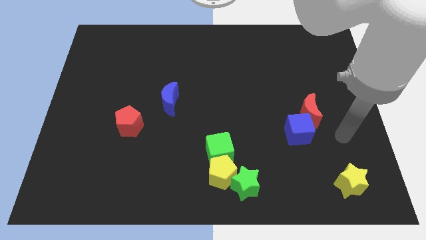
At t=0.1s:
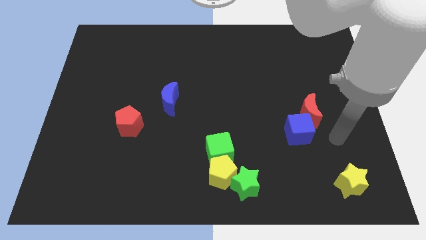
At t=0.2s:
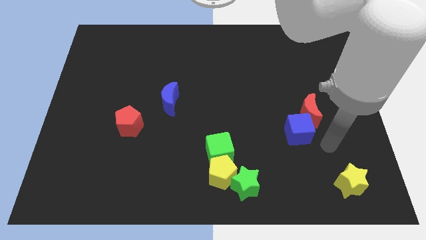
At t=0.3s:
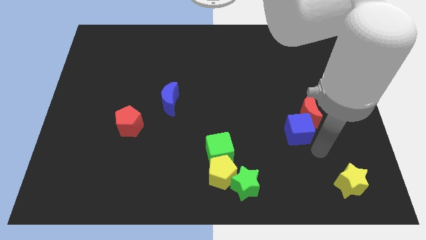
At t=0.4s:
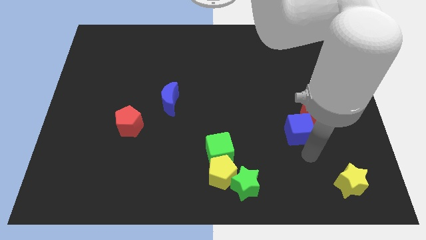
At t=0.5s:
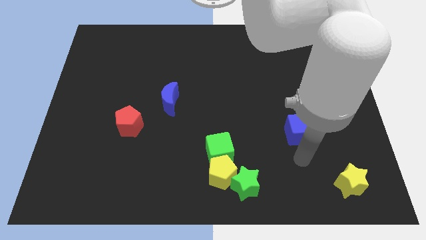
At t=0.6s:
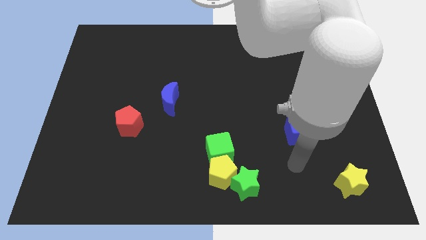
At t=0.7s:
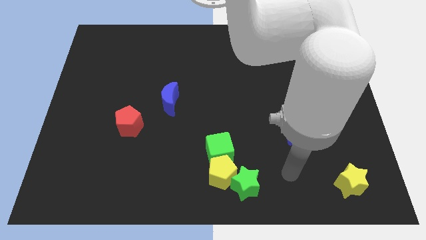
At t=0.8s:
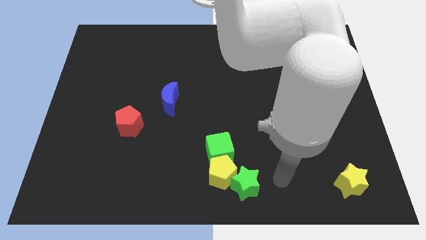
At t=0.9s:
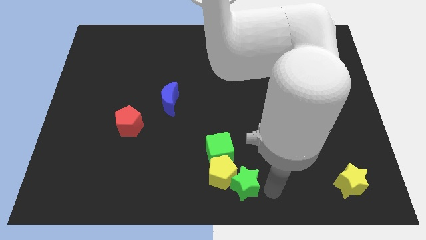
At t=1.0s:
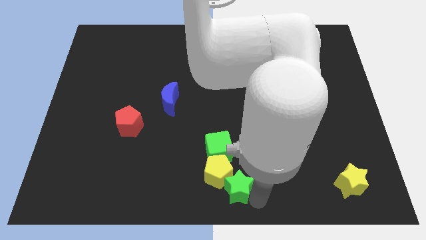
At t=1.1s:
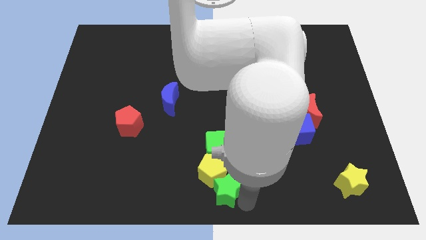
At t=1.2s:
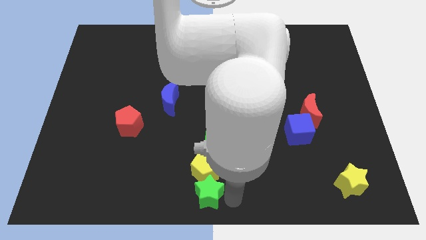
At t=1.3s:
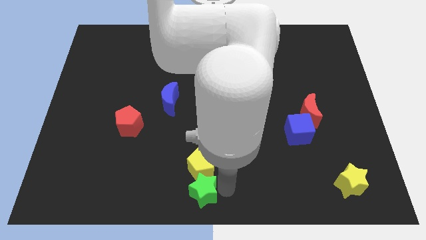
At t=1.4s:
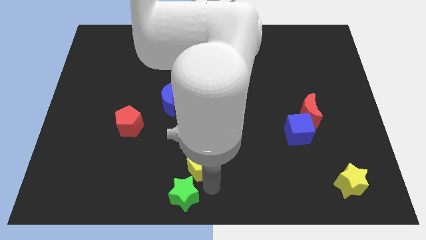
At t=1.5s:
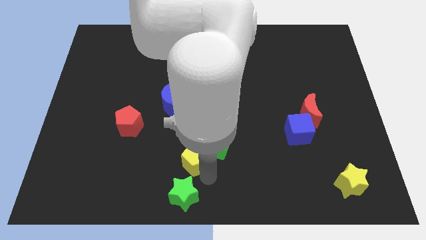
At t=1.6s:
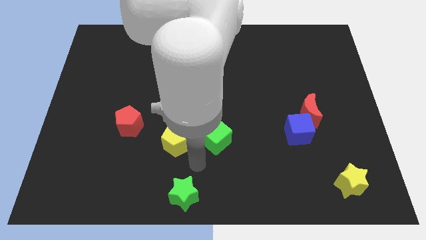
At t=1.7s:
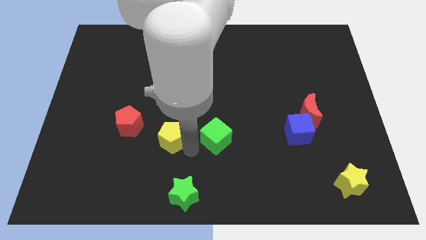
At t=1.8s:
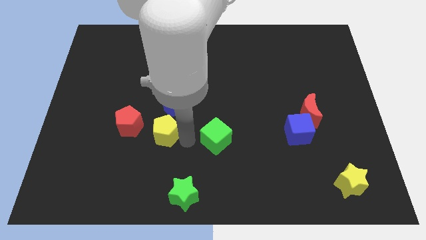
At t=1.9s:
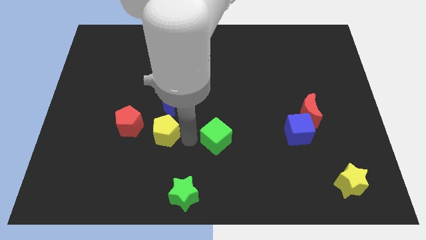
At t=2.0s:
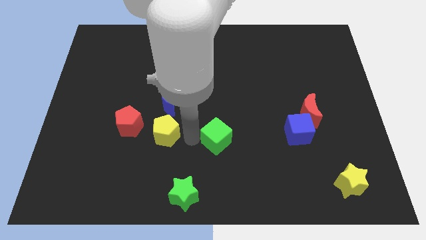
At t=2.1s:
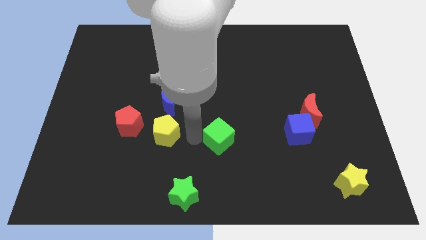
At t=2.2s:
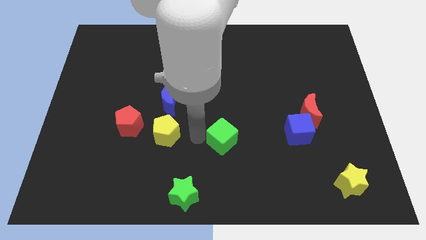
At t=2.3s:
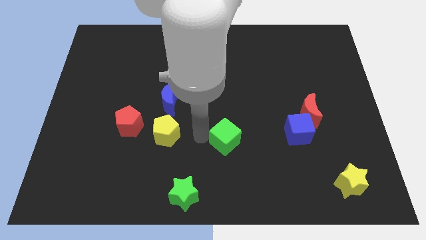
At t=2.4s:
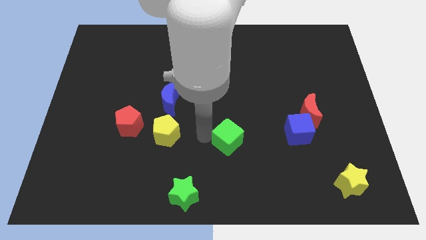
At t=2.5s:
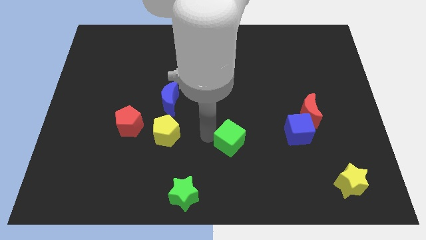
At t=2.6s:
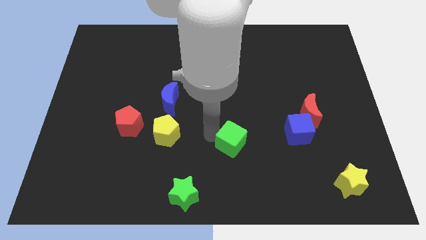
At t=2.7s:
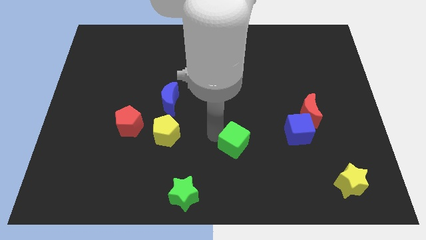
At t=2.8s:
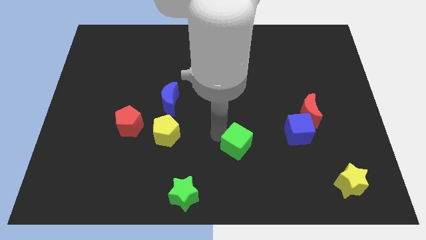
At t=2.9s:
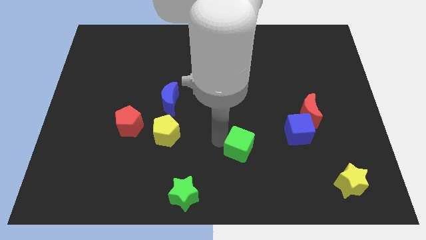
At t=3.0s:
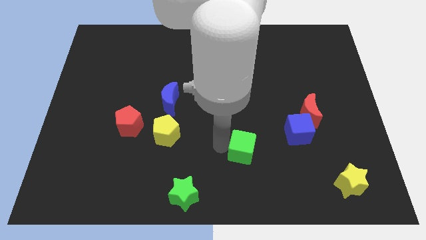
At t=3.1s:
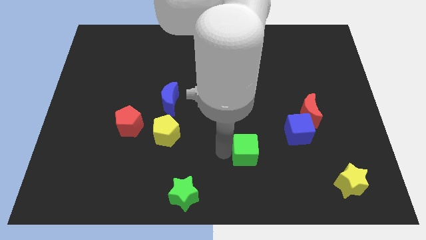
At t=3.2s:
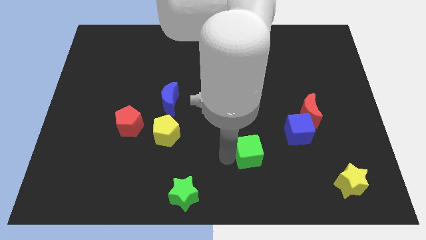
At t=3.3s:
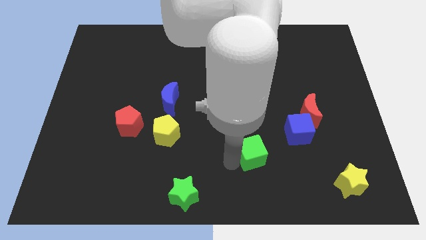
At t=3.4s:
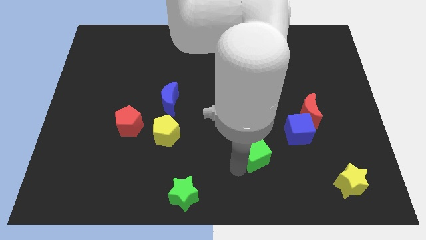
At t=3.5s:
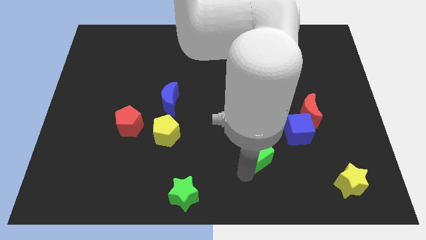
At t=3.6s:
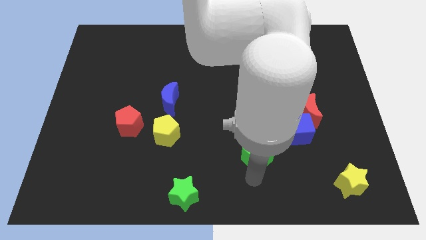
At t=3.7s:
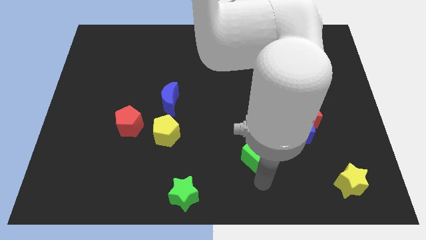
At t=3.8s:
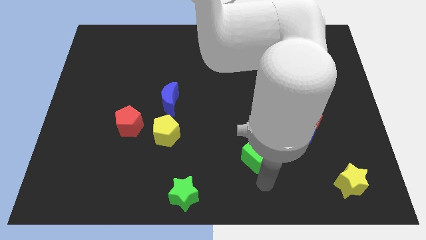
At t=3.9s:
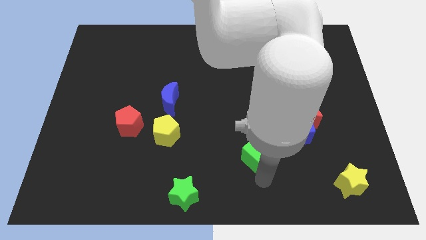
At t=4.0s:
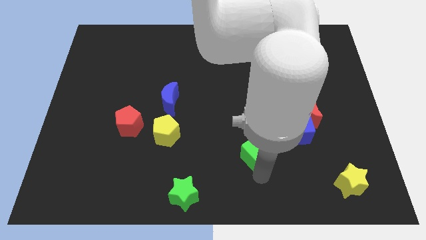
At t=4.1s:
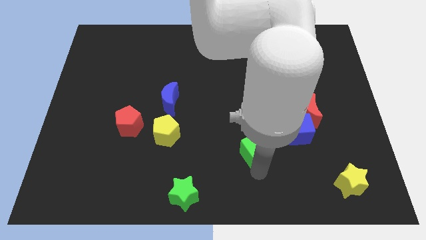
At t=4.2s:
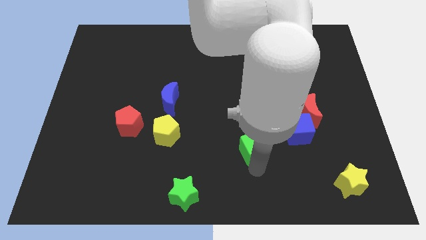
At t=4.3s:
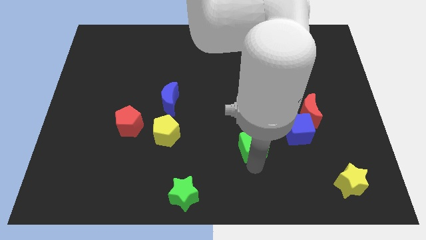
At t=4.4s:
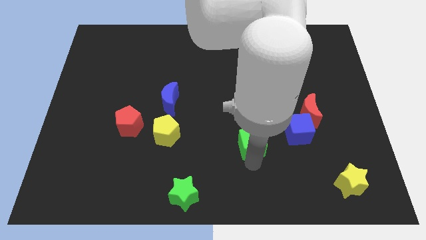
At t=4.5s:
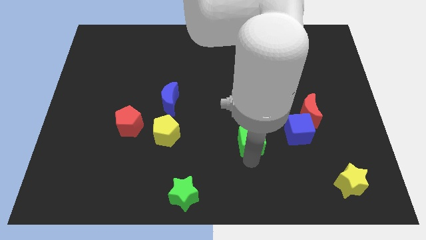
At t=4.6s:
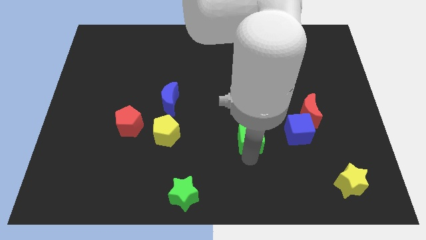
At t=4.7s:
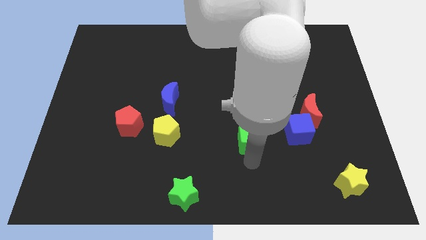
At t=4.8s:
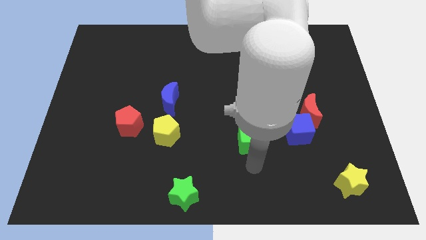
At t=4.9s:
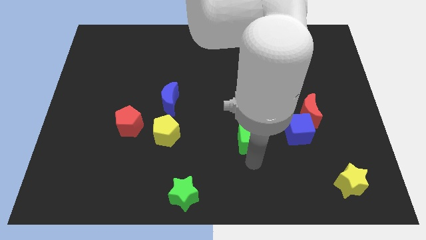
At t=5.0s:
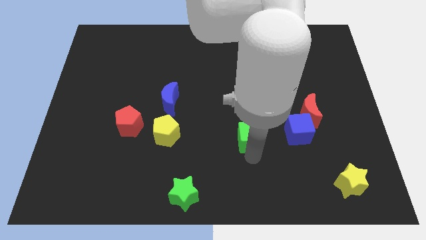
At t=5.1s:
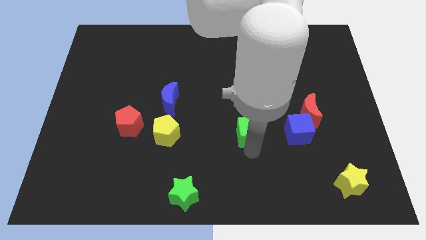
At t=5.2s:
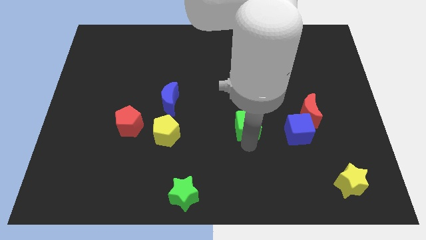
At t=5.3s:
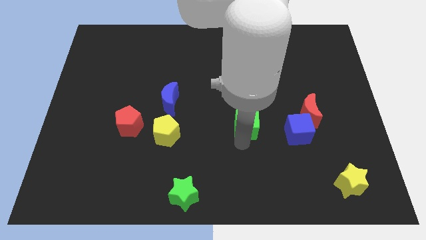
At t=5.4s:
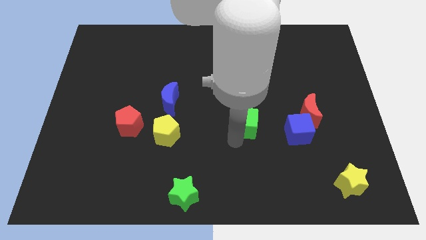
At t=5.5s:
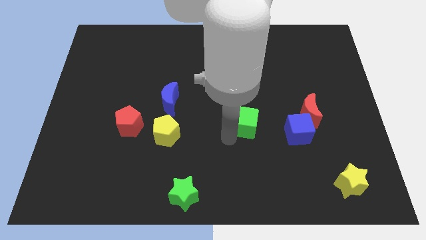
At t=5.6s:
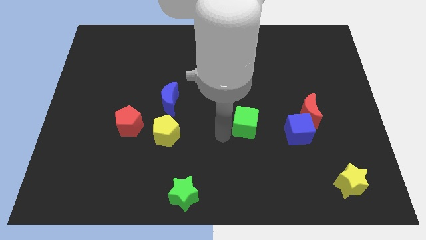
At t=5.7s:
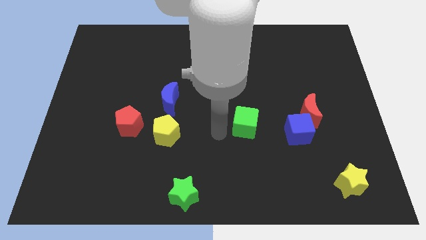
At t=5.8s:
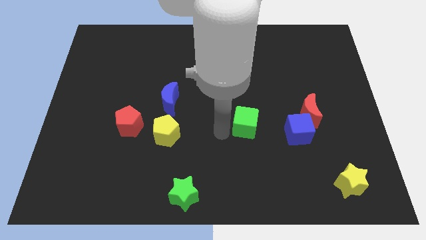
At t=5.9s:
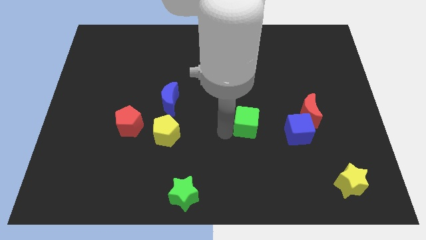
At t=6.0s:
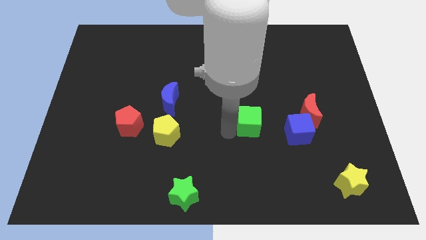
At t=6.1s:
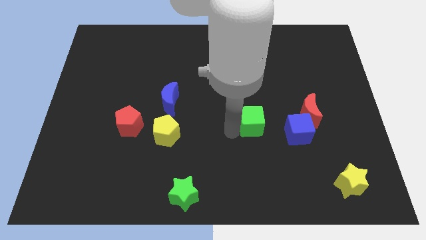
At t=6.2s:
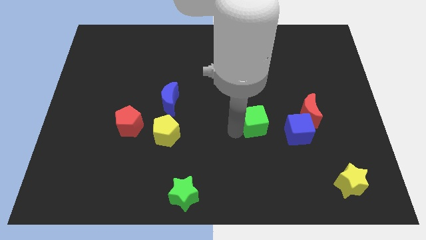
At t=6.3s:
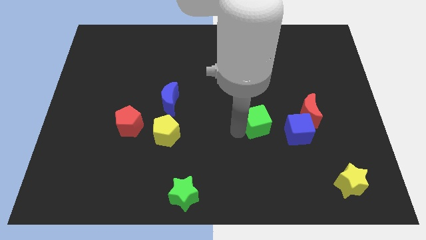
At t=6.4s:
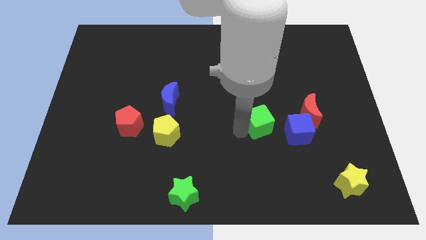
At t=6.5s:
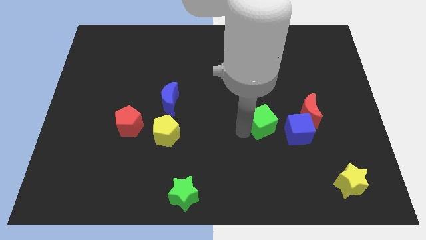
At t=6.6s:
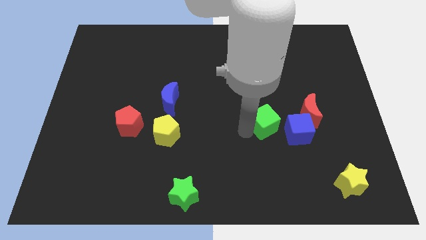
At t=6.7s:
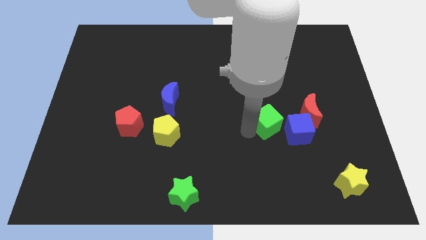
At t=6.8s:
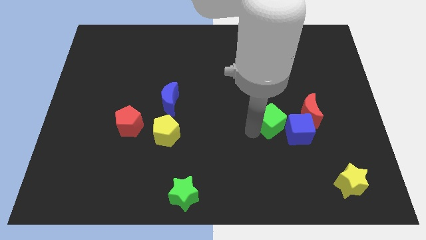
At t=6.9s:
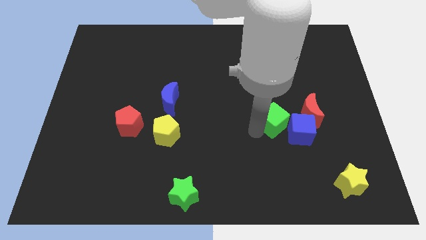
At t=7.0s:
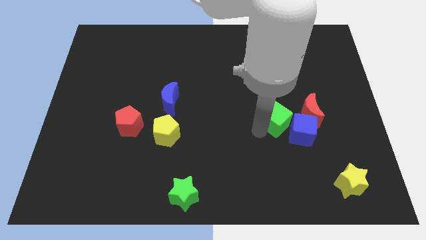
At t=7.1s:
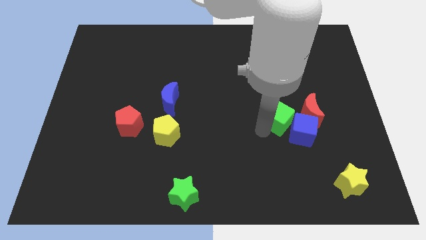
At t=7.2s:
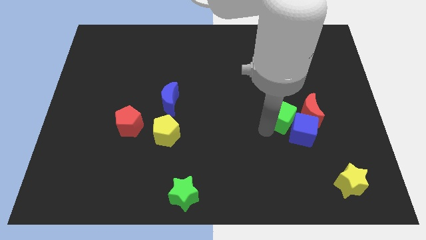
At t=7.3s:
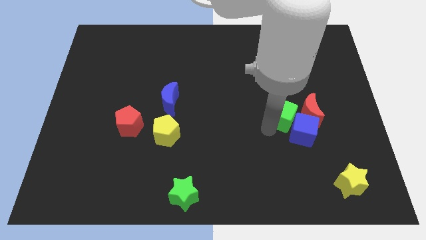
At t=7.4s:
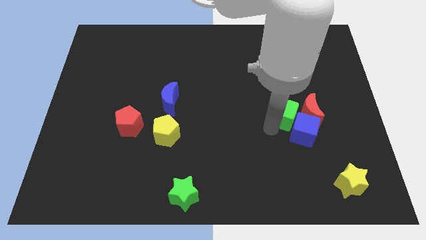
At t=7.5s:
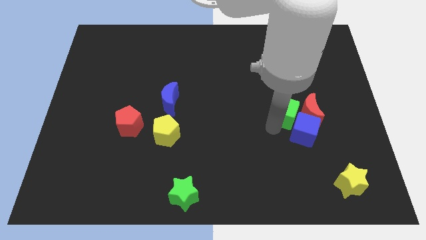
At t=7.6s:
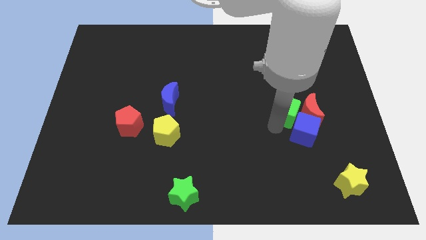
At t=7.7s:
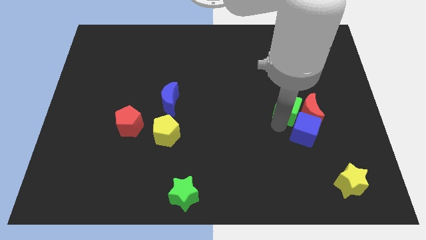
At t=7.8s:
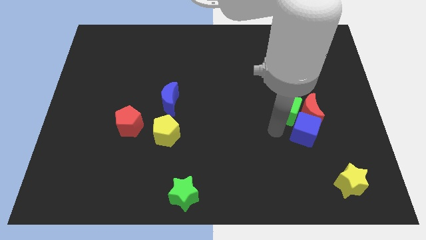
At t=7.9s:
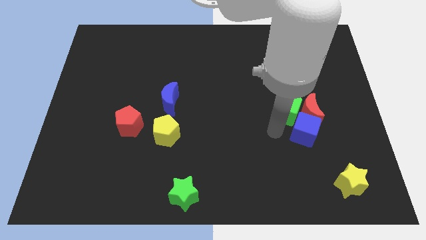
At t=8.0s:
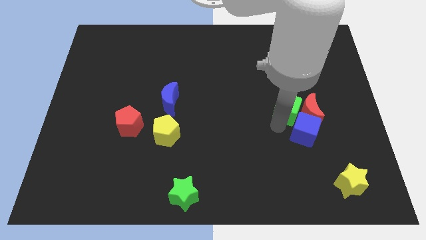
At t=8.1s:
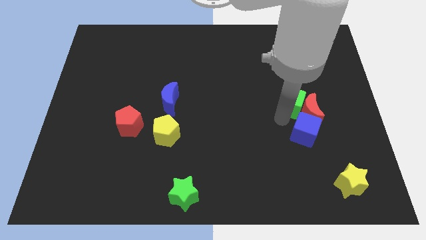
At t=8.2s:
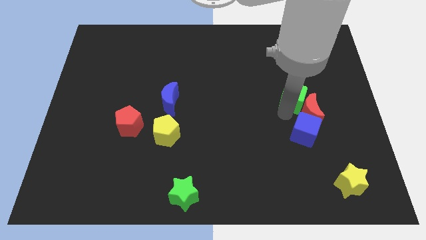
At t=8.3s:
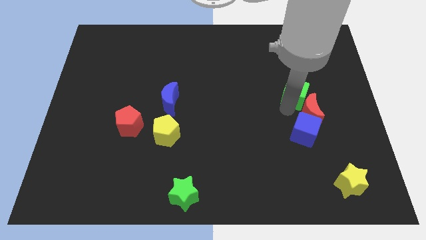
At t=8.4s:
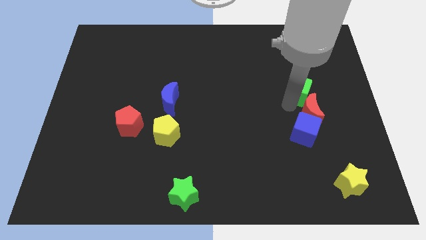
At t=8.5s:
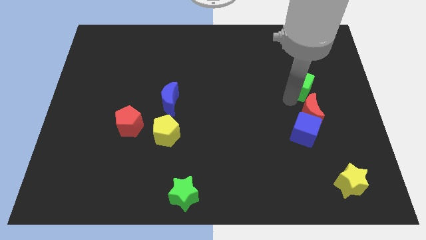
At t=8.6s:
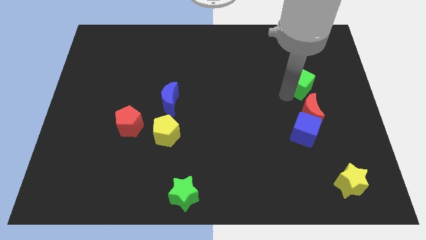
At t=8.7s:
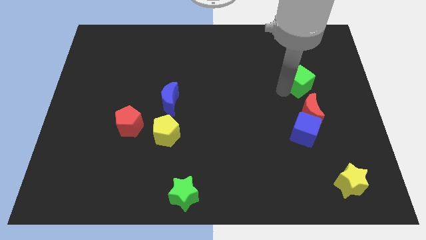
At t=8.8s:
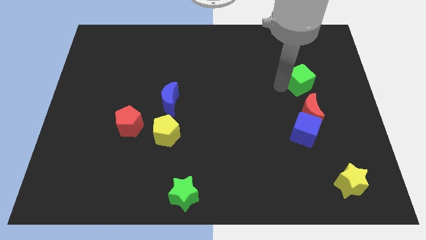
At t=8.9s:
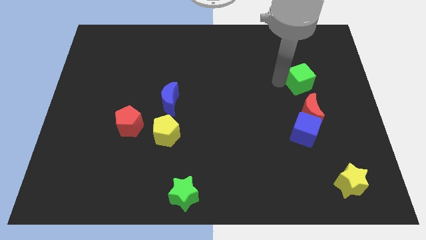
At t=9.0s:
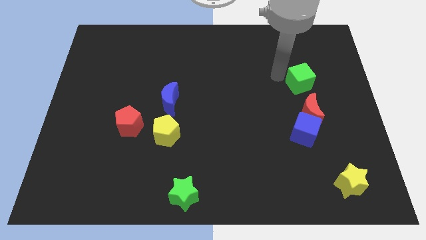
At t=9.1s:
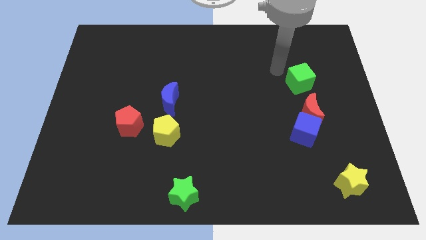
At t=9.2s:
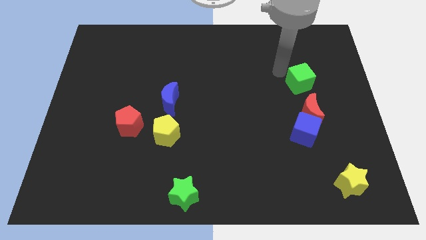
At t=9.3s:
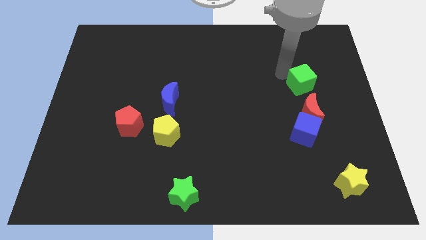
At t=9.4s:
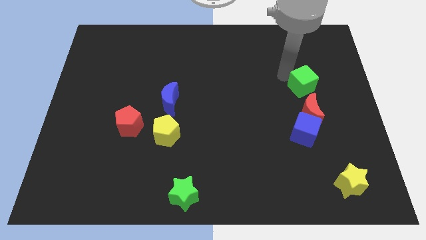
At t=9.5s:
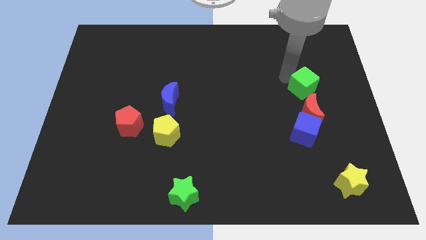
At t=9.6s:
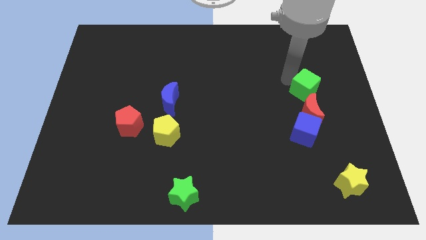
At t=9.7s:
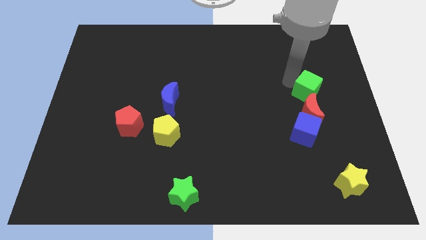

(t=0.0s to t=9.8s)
slide the green cube diagonally up and to the right of the red moon
